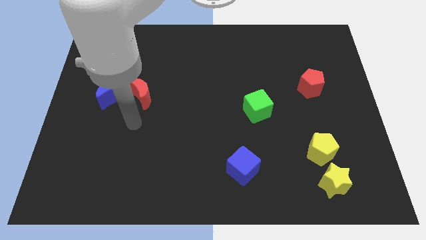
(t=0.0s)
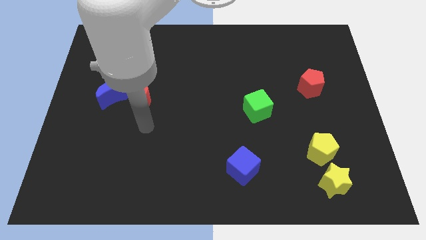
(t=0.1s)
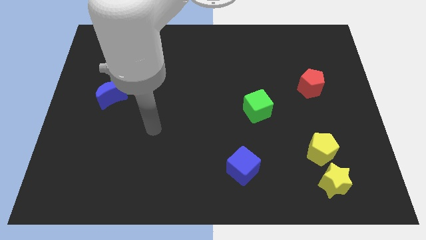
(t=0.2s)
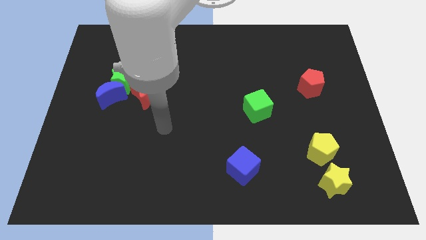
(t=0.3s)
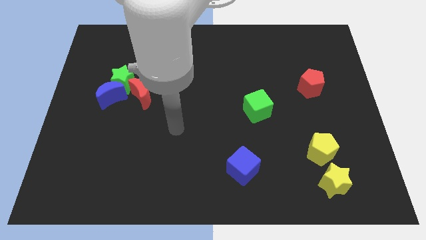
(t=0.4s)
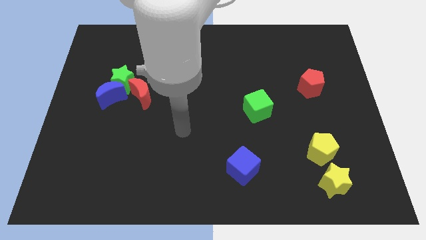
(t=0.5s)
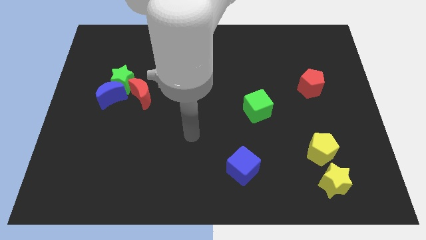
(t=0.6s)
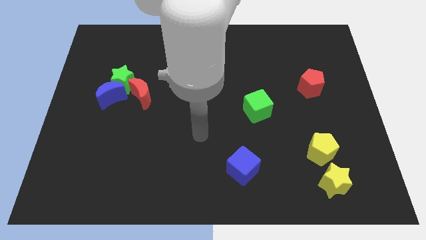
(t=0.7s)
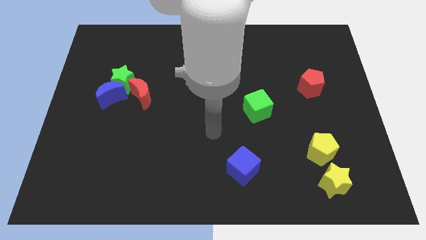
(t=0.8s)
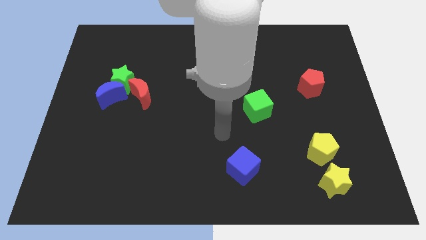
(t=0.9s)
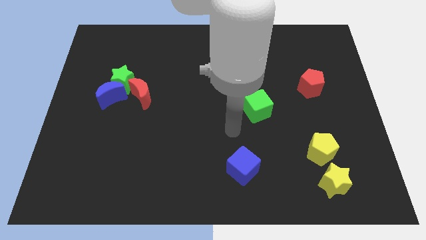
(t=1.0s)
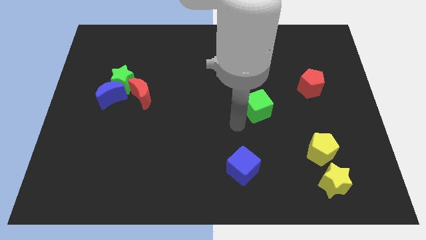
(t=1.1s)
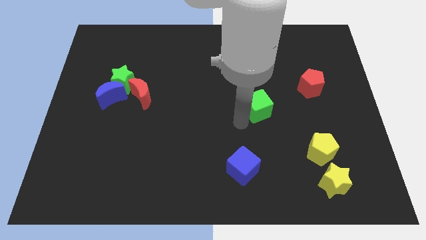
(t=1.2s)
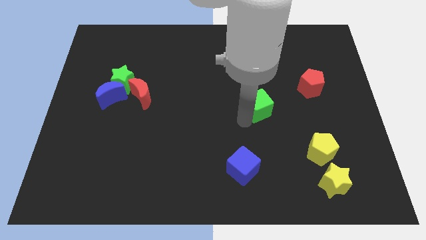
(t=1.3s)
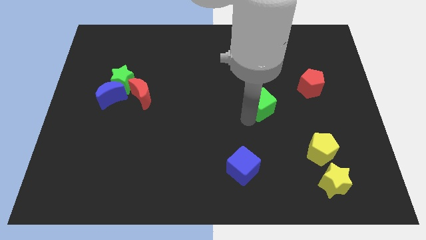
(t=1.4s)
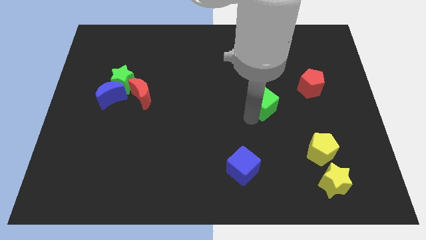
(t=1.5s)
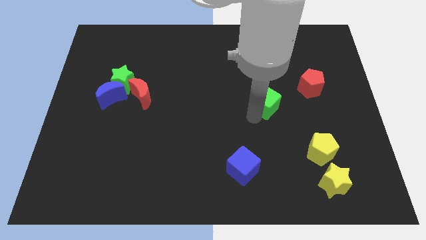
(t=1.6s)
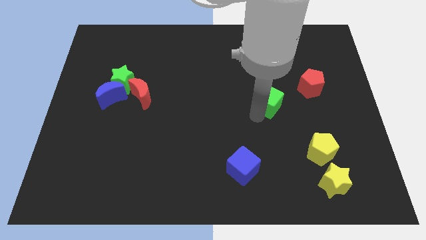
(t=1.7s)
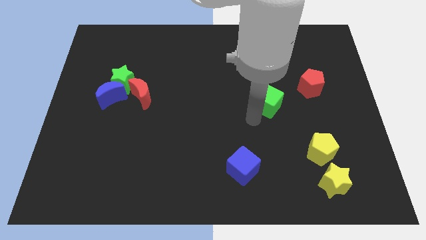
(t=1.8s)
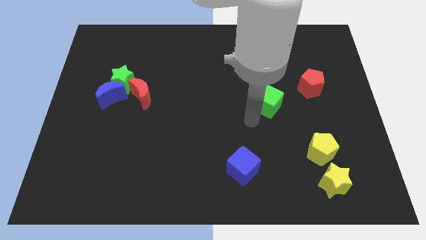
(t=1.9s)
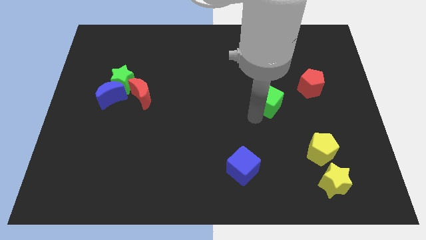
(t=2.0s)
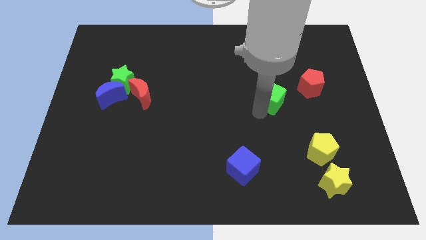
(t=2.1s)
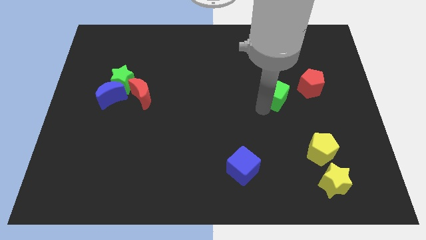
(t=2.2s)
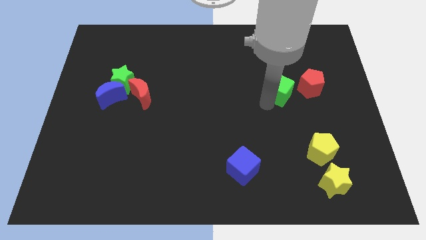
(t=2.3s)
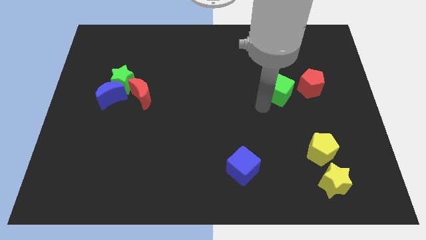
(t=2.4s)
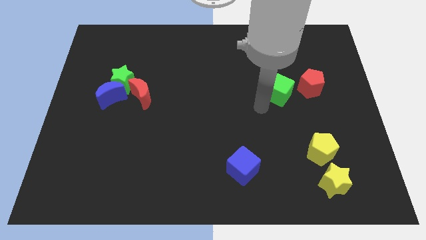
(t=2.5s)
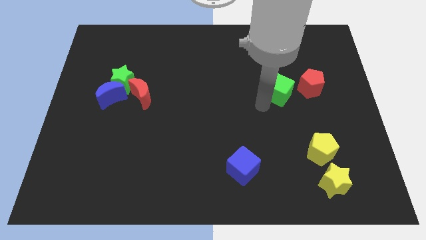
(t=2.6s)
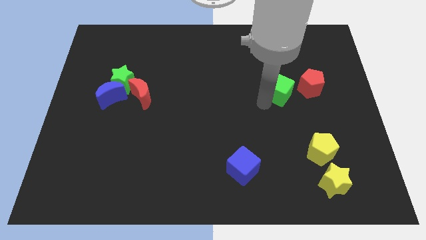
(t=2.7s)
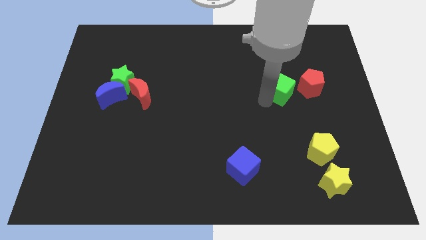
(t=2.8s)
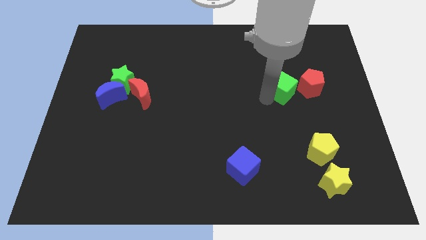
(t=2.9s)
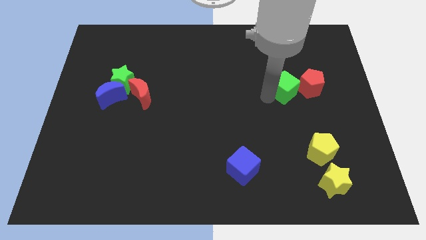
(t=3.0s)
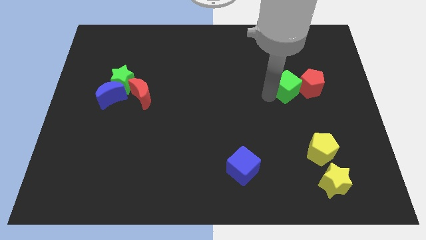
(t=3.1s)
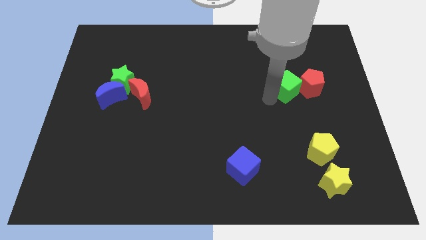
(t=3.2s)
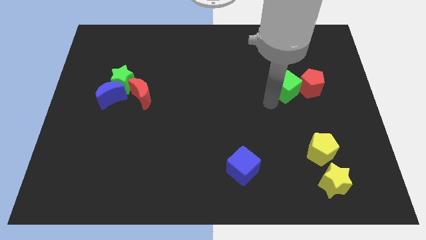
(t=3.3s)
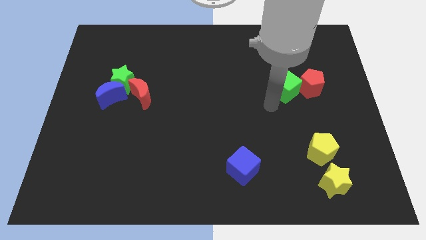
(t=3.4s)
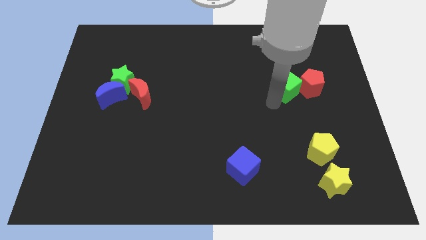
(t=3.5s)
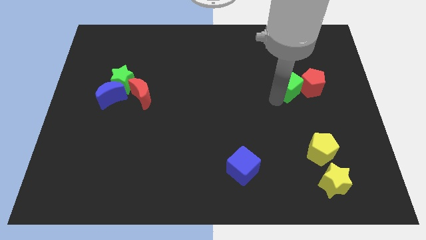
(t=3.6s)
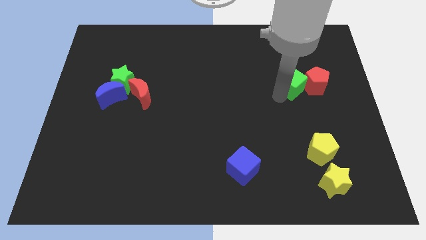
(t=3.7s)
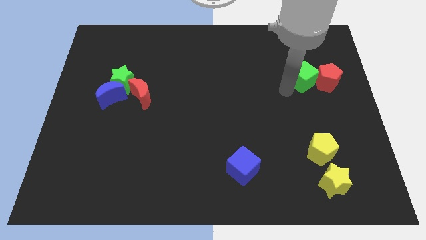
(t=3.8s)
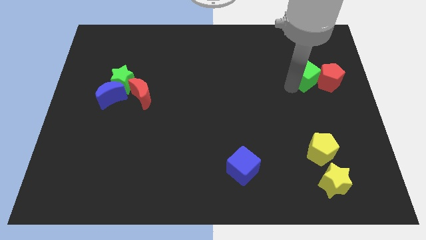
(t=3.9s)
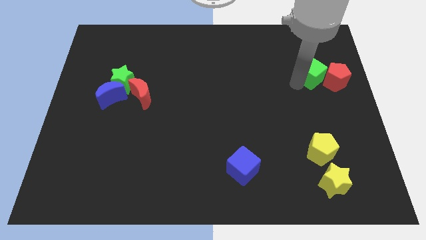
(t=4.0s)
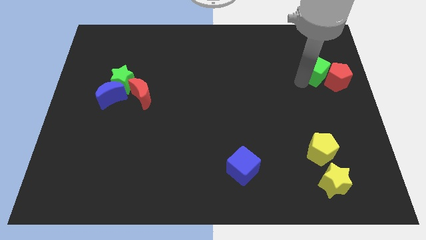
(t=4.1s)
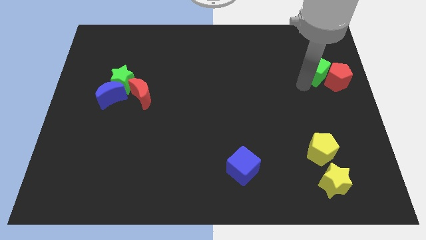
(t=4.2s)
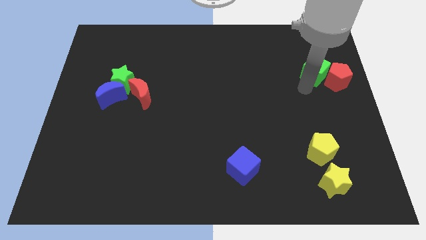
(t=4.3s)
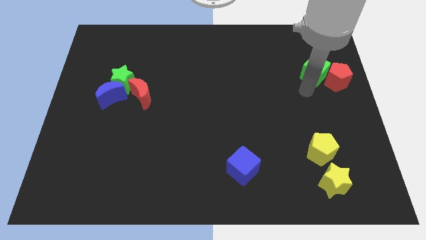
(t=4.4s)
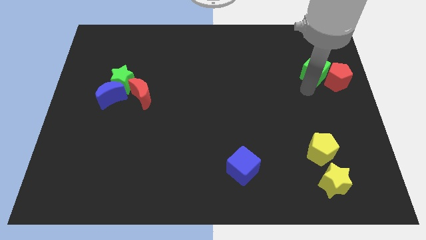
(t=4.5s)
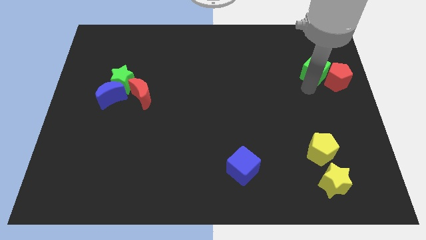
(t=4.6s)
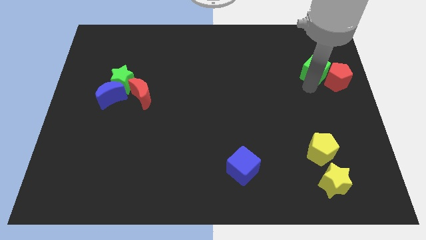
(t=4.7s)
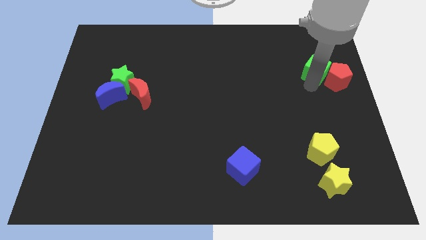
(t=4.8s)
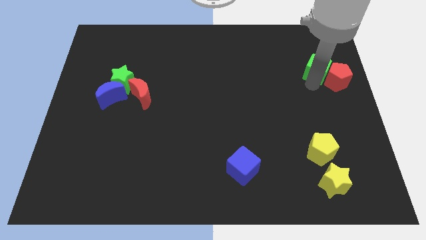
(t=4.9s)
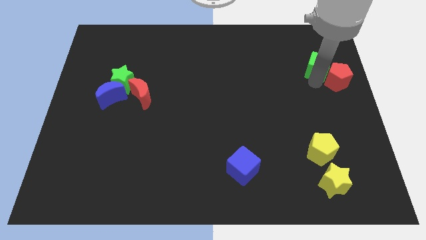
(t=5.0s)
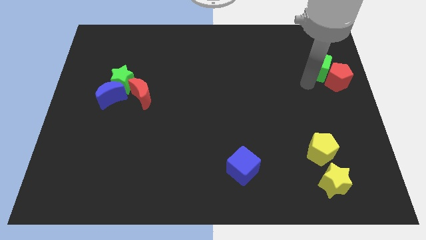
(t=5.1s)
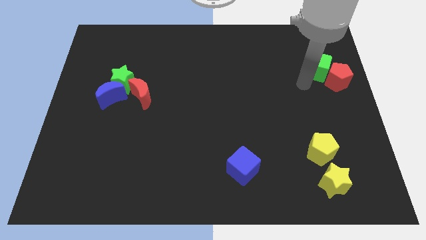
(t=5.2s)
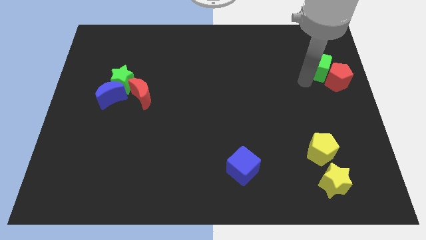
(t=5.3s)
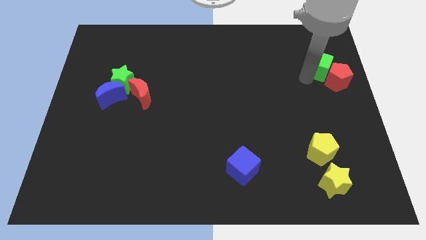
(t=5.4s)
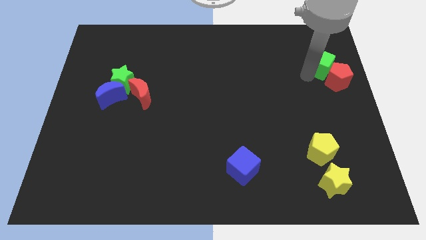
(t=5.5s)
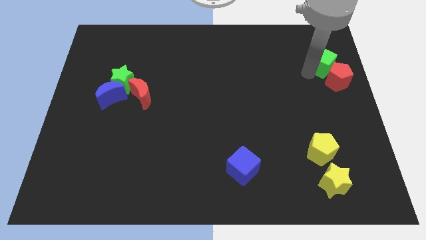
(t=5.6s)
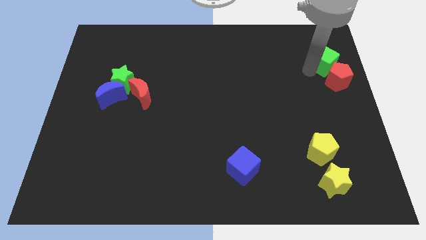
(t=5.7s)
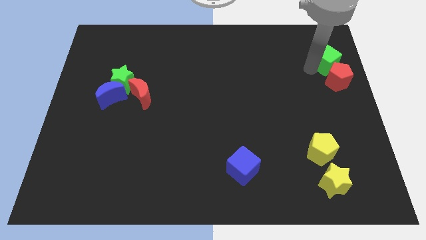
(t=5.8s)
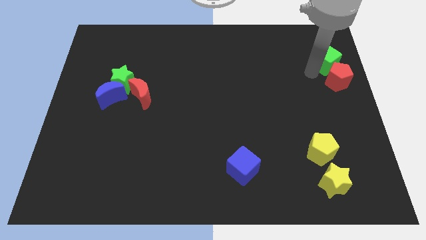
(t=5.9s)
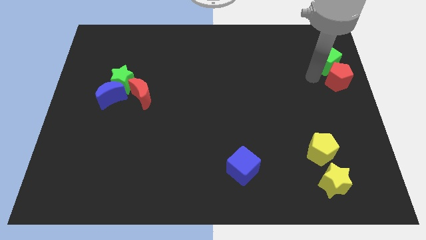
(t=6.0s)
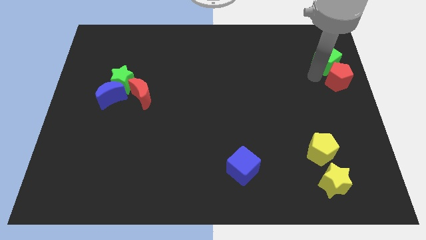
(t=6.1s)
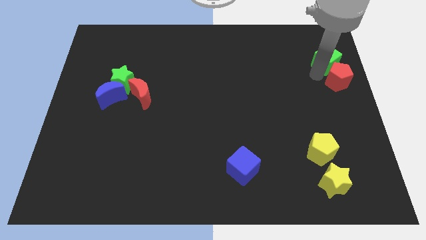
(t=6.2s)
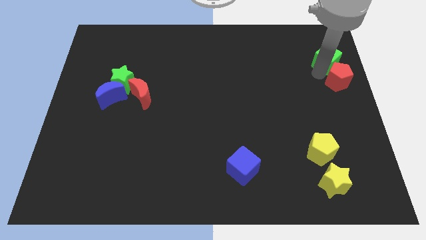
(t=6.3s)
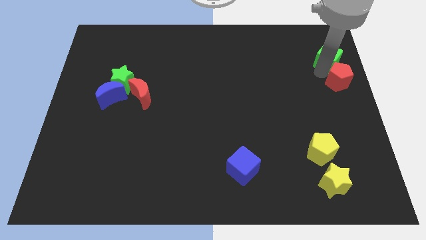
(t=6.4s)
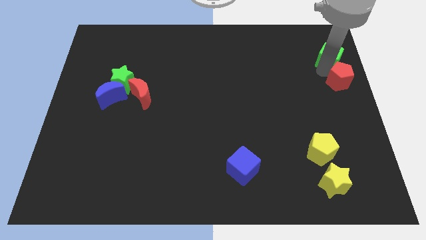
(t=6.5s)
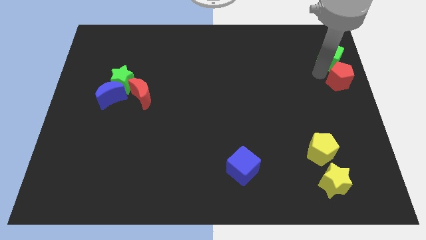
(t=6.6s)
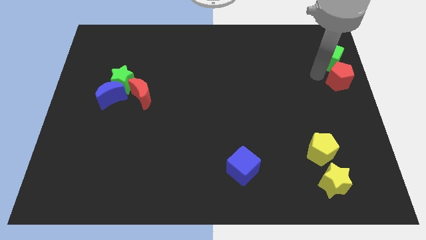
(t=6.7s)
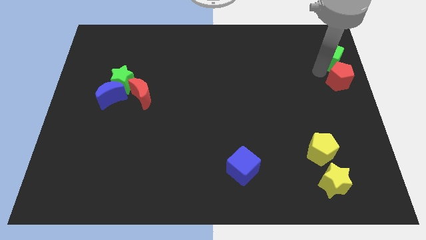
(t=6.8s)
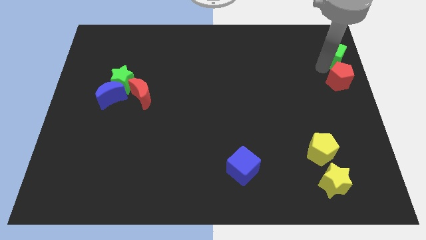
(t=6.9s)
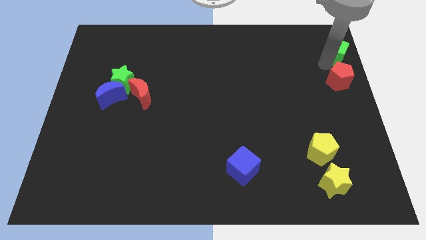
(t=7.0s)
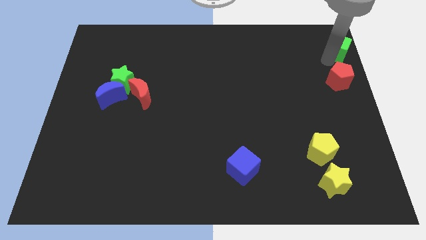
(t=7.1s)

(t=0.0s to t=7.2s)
push the green cube to the top right corner
